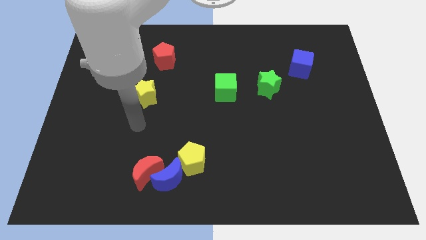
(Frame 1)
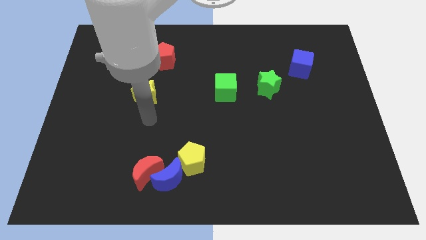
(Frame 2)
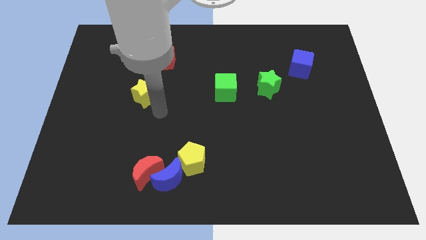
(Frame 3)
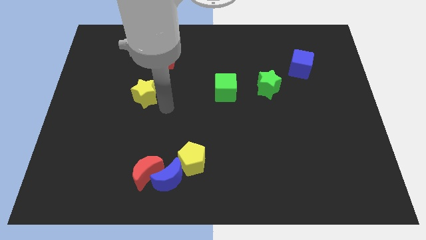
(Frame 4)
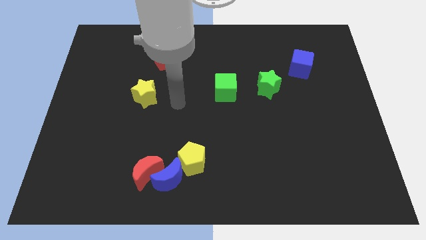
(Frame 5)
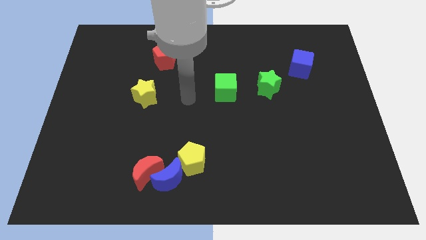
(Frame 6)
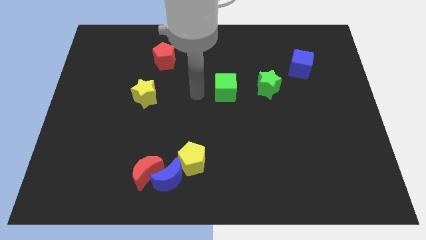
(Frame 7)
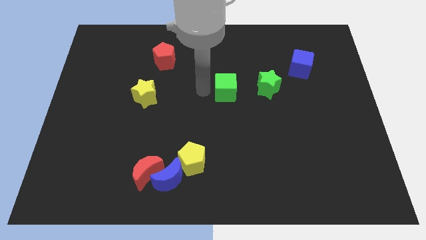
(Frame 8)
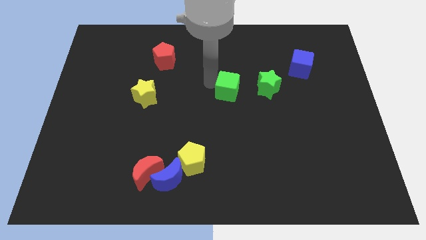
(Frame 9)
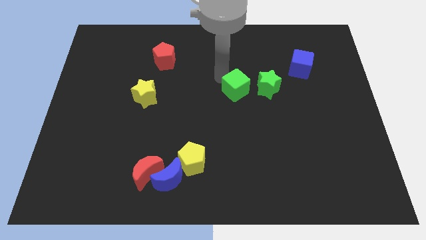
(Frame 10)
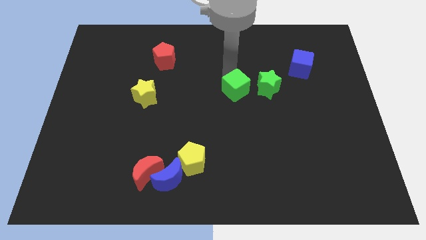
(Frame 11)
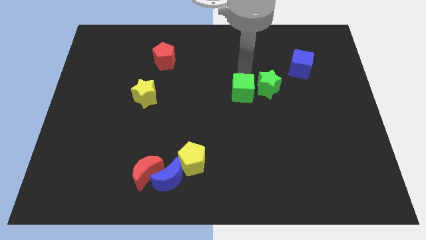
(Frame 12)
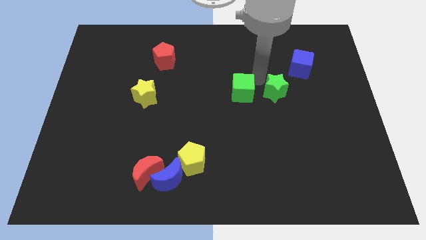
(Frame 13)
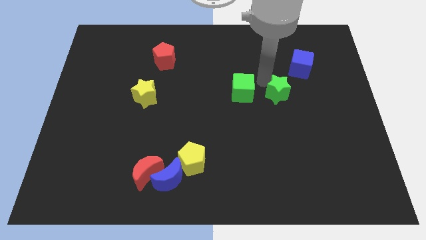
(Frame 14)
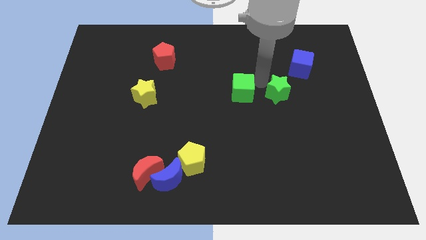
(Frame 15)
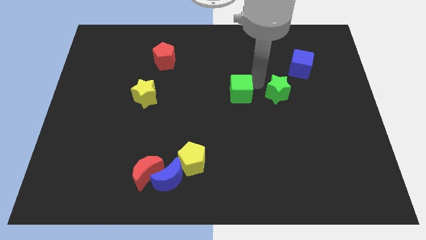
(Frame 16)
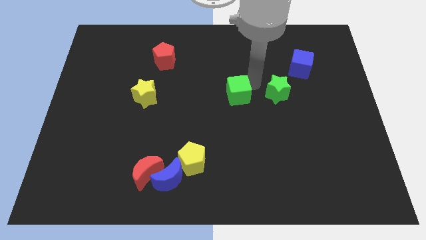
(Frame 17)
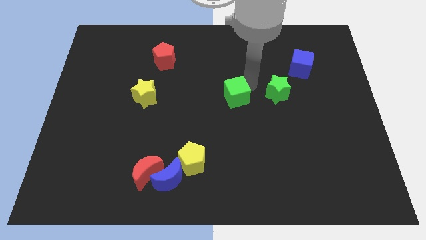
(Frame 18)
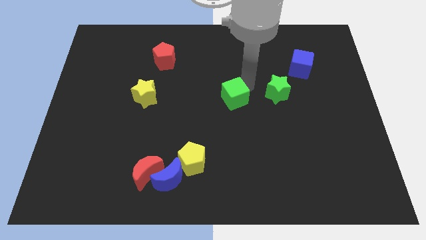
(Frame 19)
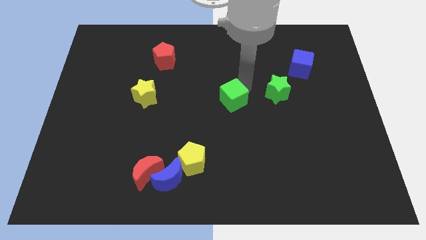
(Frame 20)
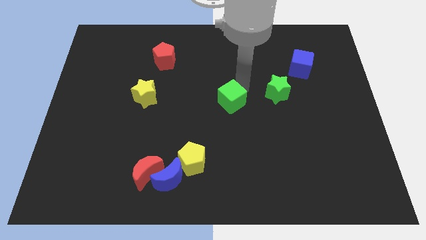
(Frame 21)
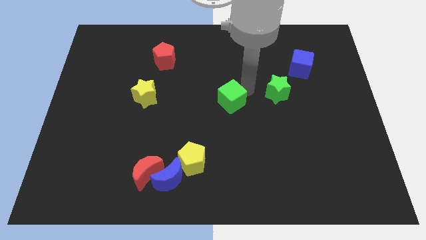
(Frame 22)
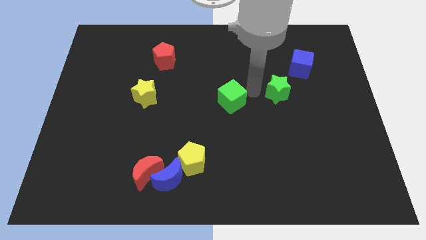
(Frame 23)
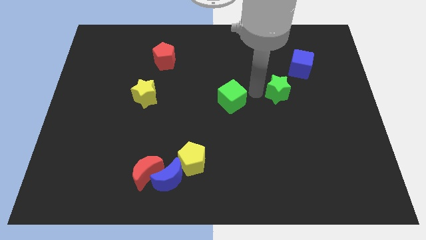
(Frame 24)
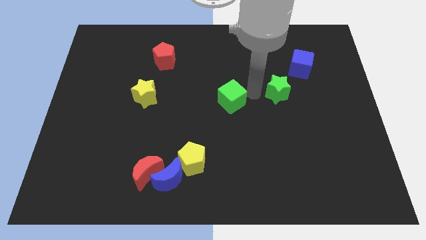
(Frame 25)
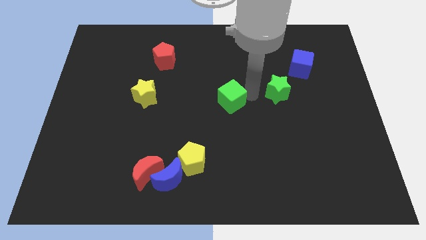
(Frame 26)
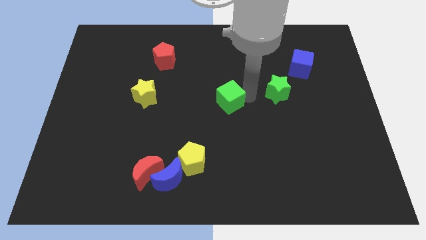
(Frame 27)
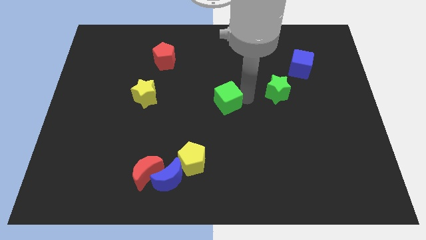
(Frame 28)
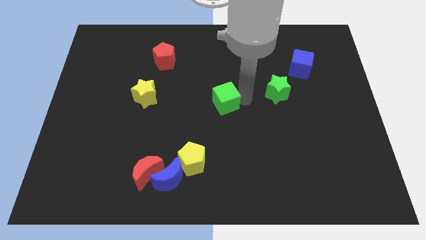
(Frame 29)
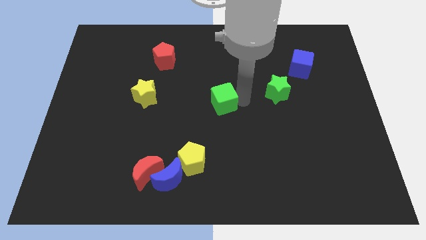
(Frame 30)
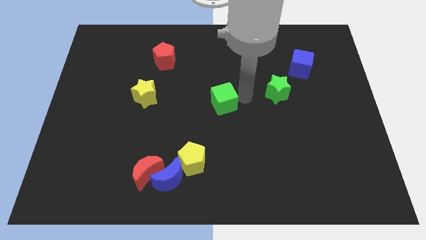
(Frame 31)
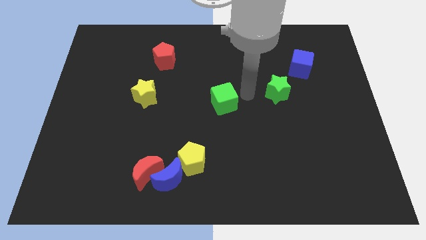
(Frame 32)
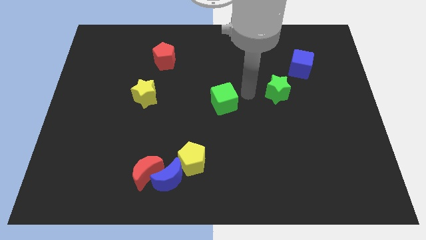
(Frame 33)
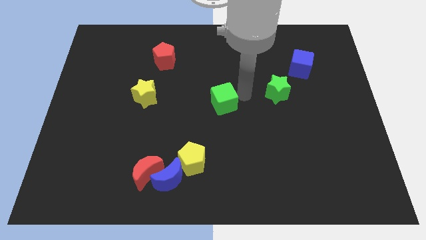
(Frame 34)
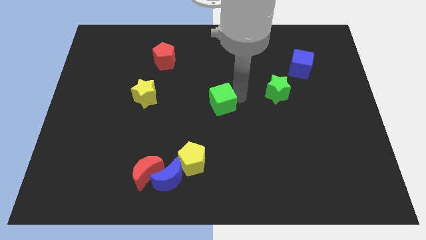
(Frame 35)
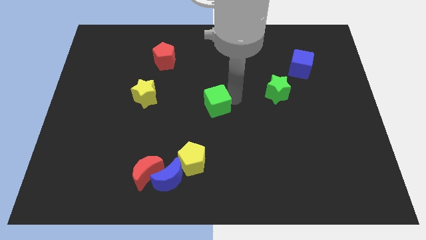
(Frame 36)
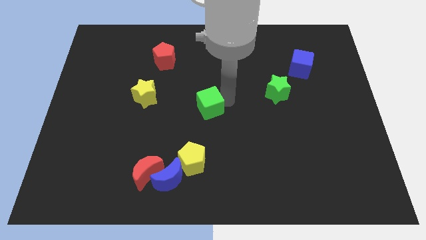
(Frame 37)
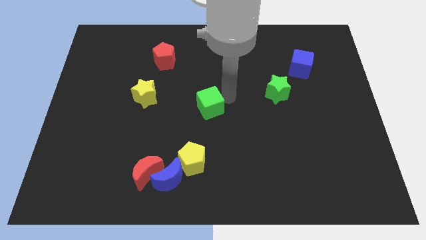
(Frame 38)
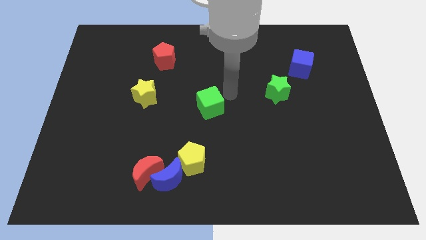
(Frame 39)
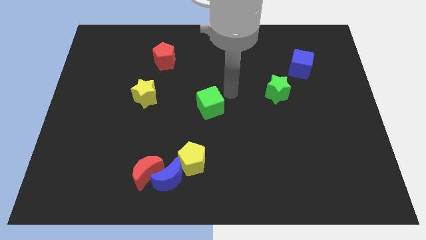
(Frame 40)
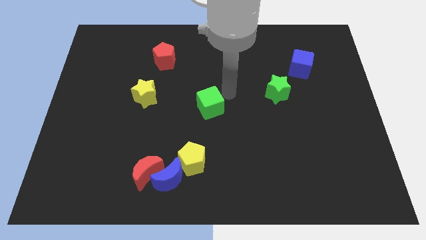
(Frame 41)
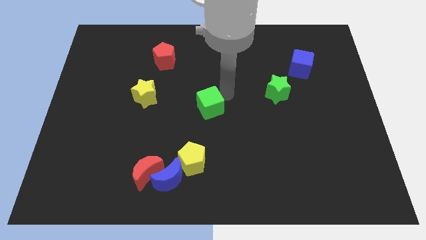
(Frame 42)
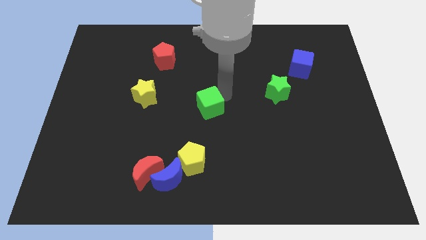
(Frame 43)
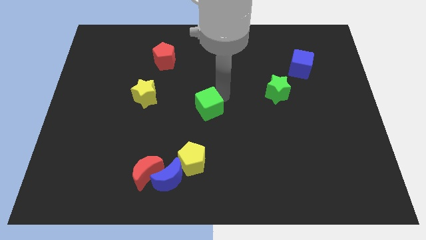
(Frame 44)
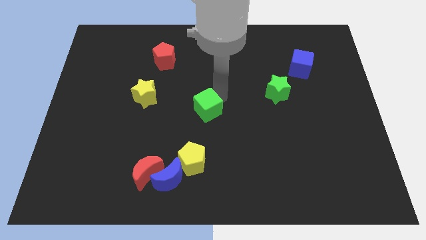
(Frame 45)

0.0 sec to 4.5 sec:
slide the green cube slightly downwards and left diagonally

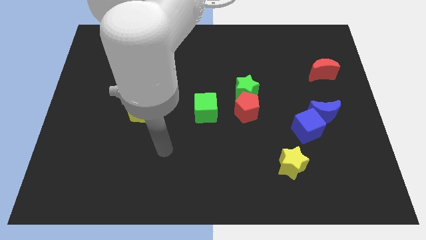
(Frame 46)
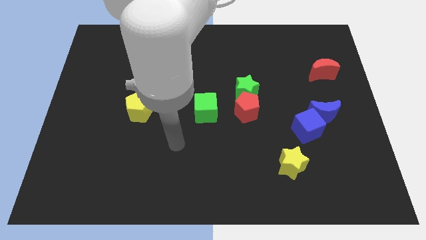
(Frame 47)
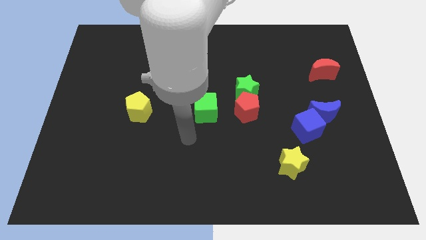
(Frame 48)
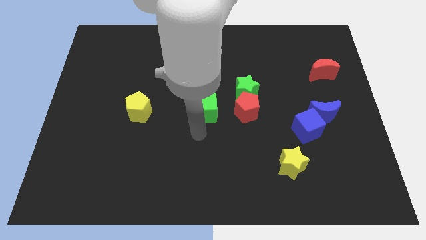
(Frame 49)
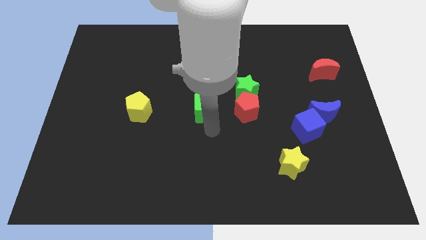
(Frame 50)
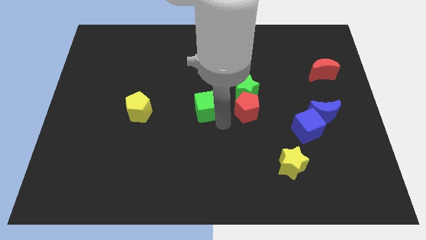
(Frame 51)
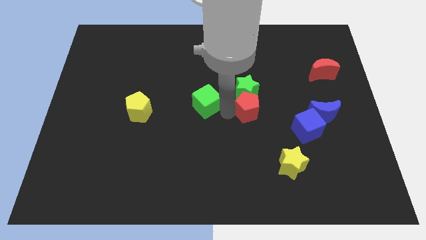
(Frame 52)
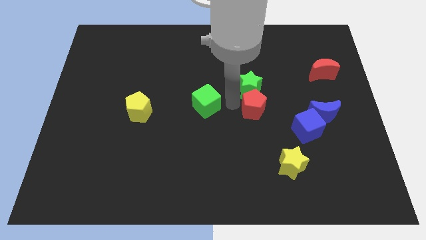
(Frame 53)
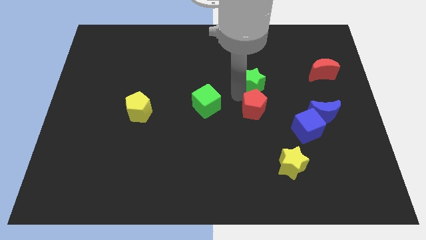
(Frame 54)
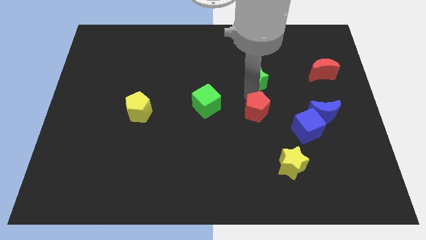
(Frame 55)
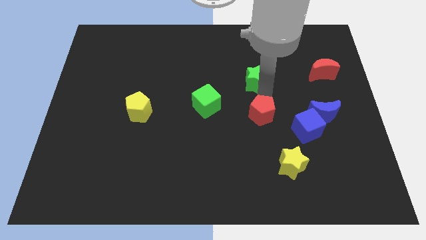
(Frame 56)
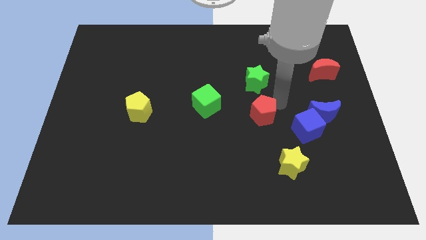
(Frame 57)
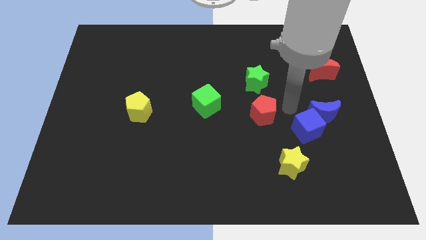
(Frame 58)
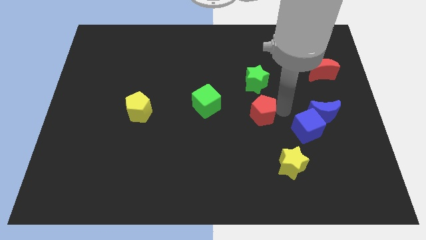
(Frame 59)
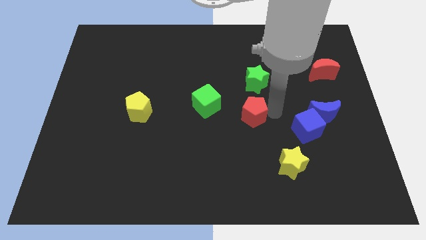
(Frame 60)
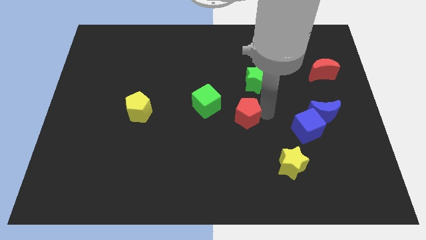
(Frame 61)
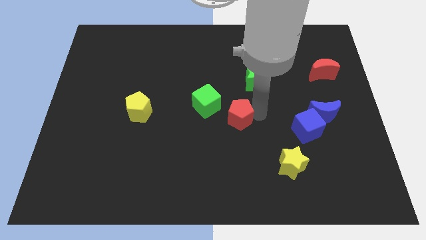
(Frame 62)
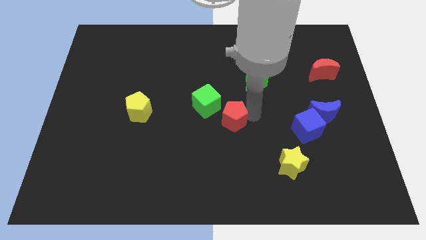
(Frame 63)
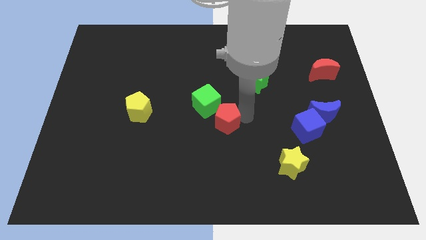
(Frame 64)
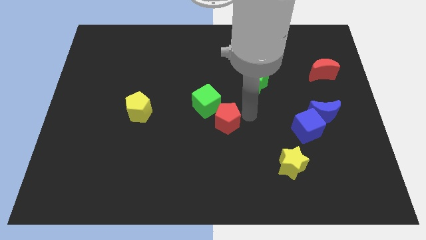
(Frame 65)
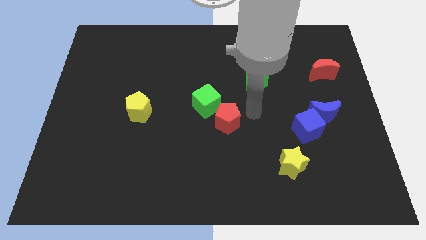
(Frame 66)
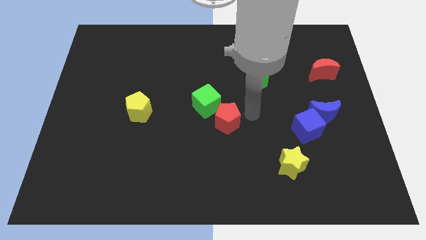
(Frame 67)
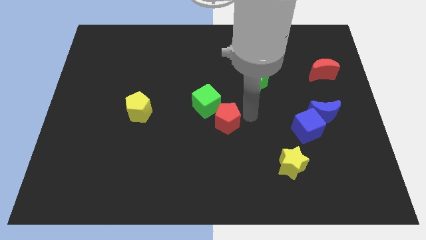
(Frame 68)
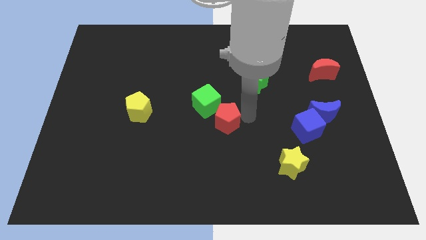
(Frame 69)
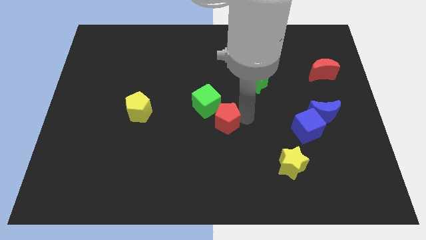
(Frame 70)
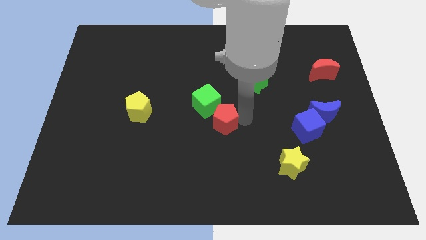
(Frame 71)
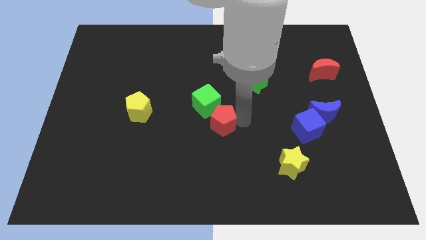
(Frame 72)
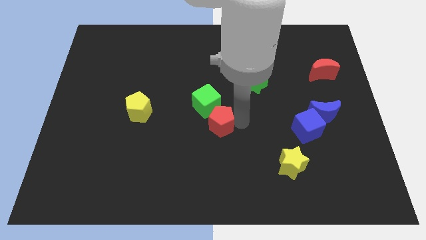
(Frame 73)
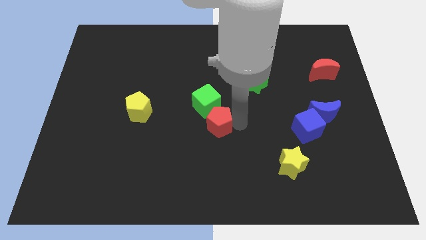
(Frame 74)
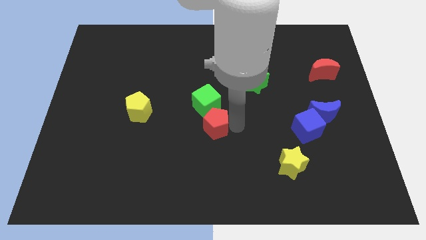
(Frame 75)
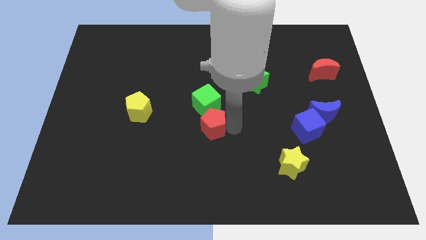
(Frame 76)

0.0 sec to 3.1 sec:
slightly move the red pentagon left

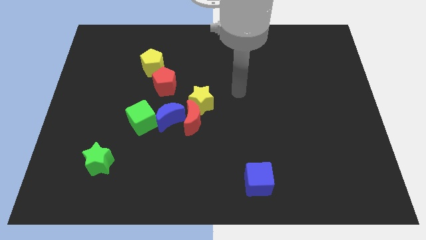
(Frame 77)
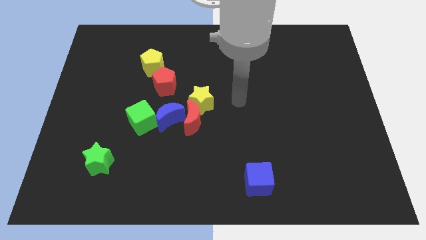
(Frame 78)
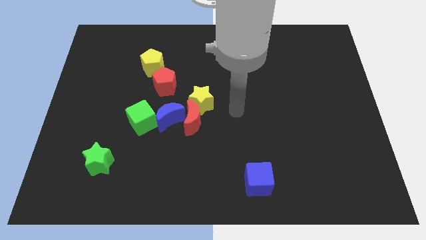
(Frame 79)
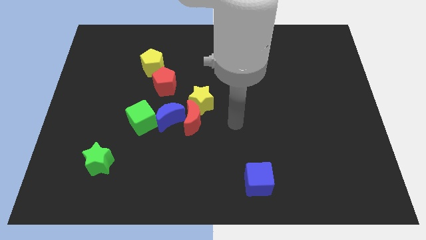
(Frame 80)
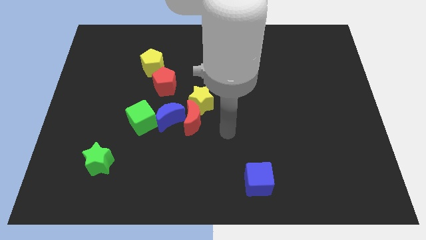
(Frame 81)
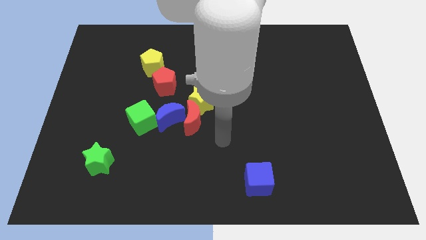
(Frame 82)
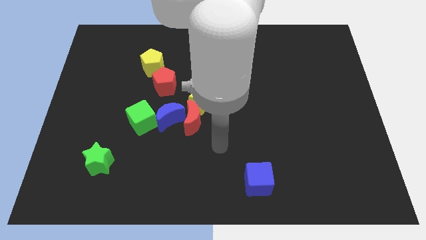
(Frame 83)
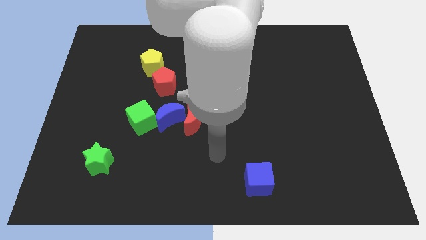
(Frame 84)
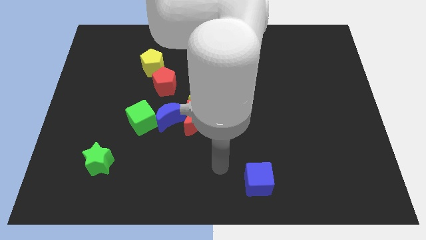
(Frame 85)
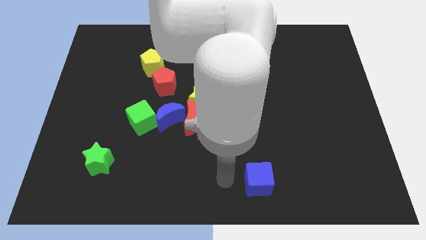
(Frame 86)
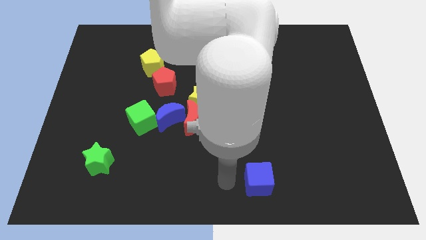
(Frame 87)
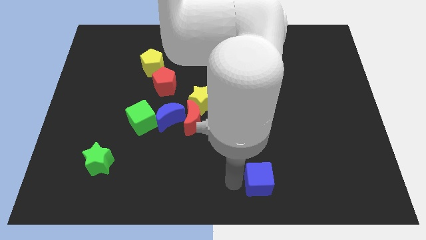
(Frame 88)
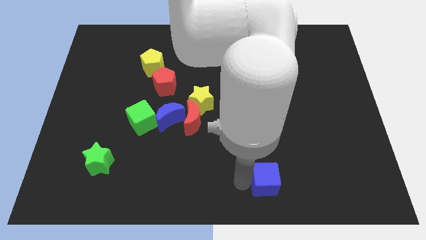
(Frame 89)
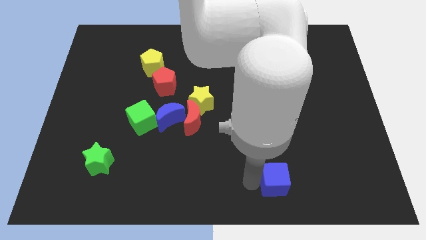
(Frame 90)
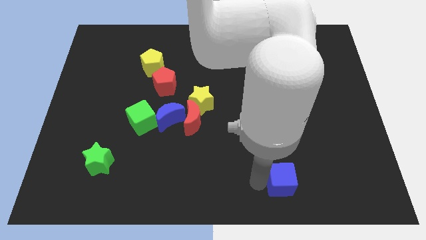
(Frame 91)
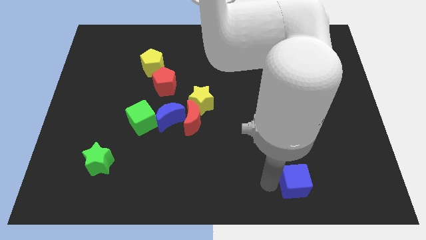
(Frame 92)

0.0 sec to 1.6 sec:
push the blue cube a little to the right
